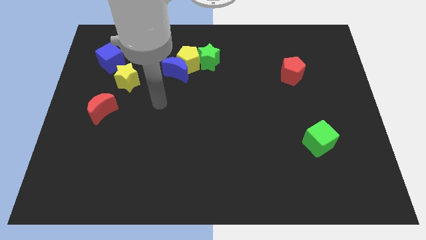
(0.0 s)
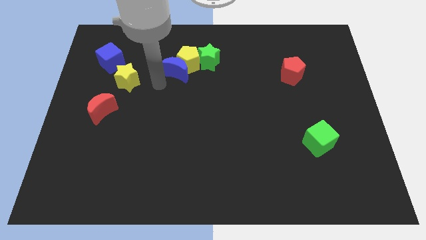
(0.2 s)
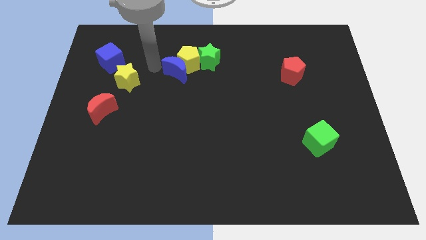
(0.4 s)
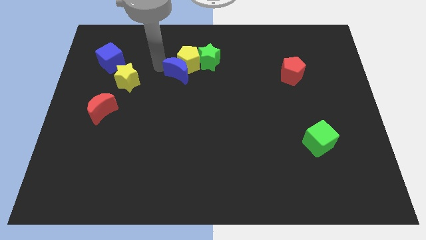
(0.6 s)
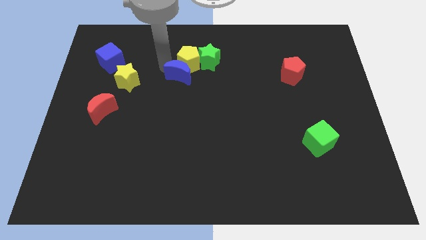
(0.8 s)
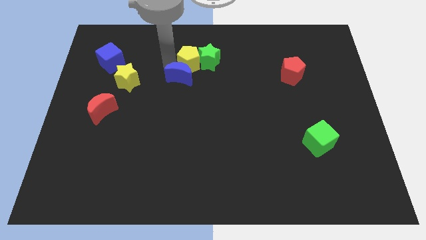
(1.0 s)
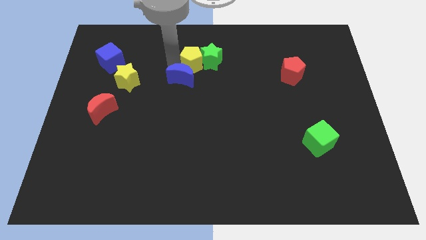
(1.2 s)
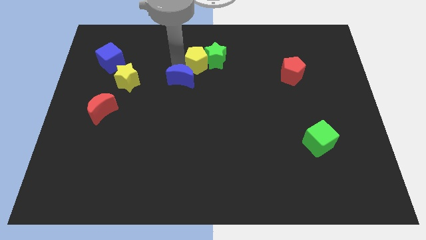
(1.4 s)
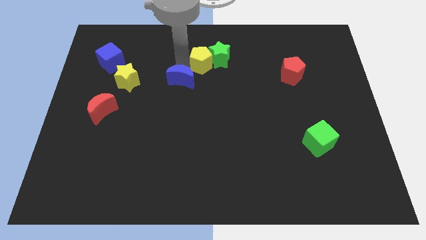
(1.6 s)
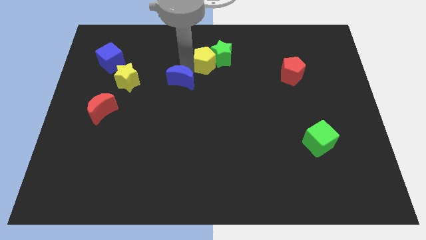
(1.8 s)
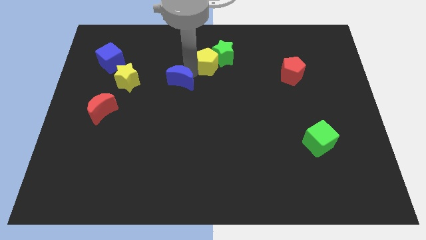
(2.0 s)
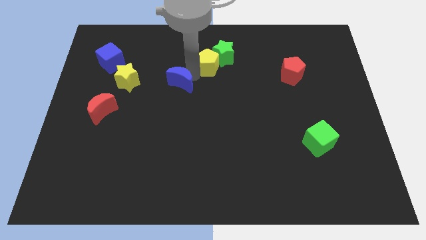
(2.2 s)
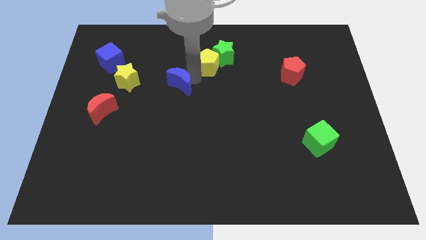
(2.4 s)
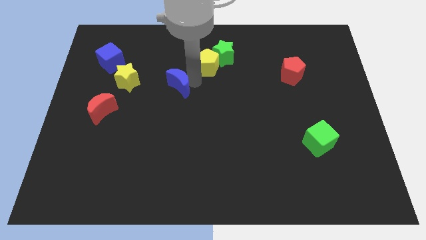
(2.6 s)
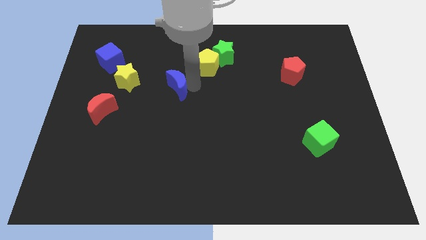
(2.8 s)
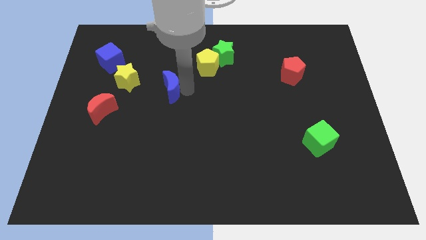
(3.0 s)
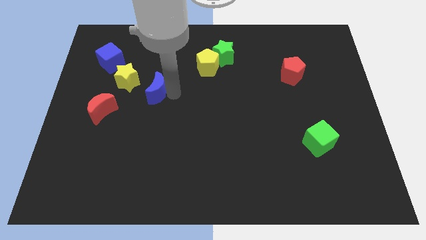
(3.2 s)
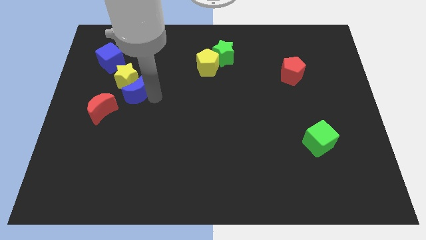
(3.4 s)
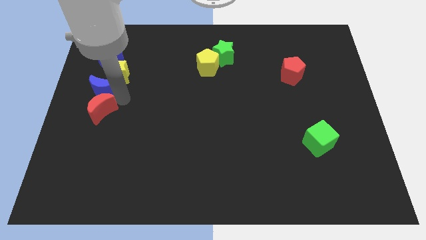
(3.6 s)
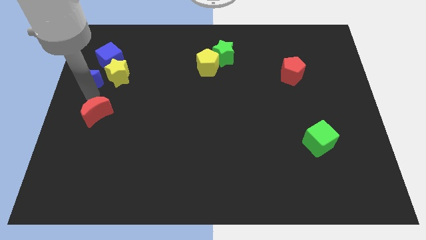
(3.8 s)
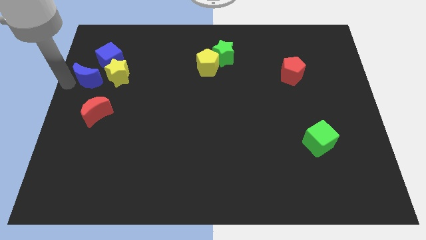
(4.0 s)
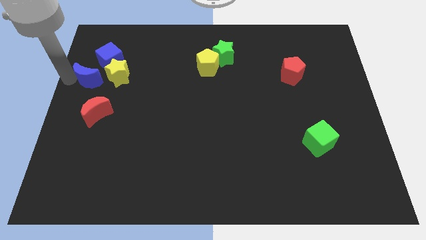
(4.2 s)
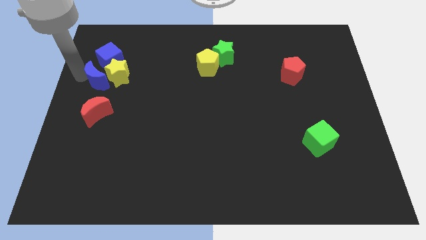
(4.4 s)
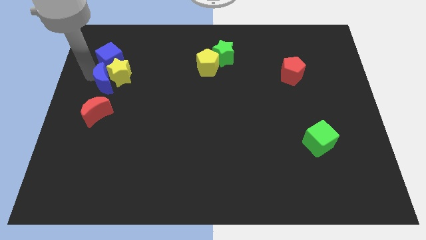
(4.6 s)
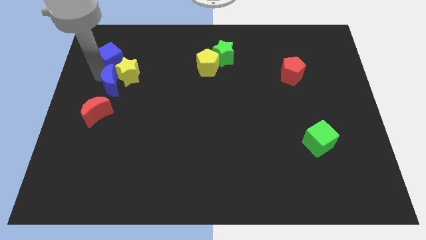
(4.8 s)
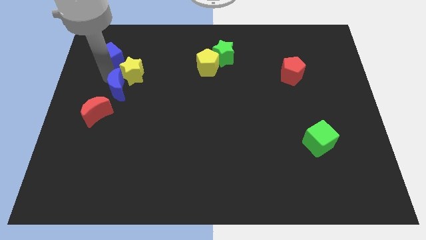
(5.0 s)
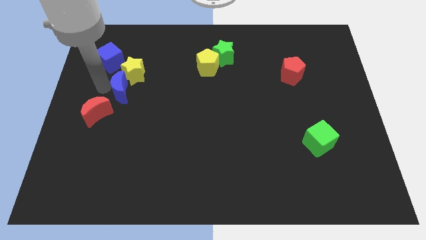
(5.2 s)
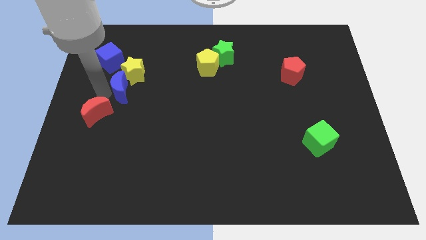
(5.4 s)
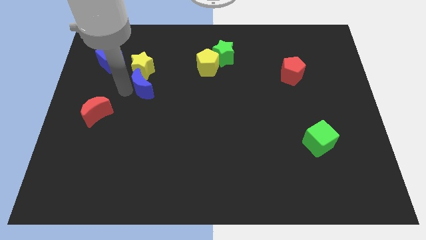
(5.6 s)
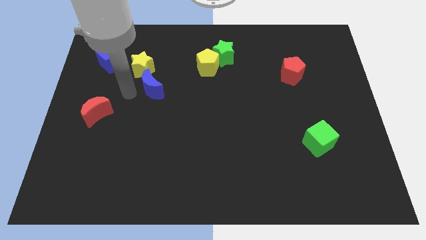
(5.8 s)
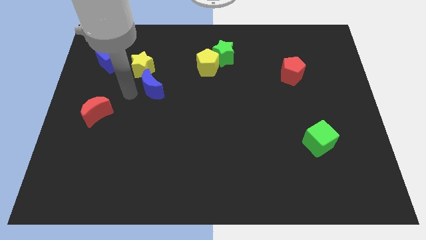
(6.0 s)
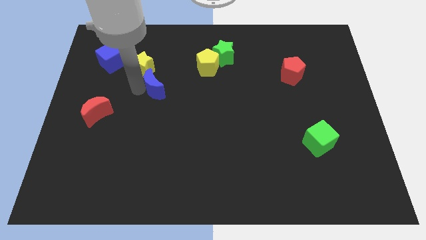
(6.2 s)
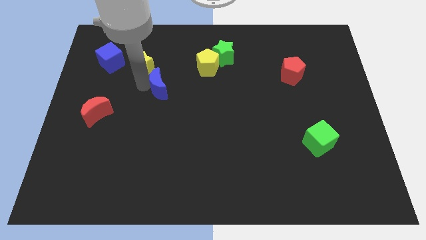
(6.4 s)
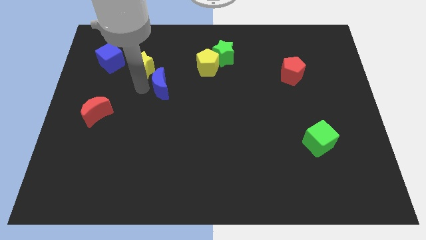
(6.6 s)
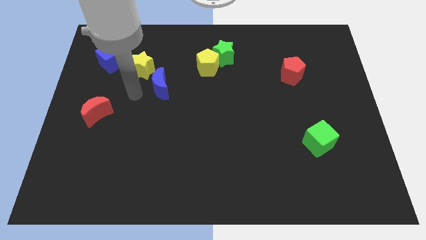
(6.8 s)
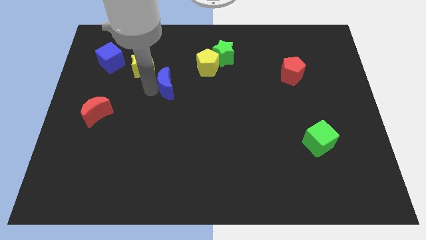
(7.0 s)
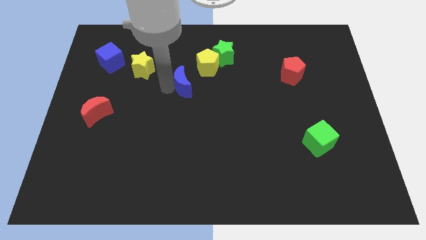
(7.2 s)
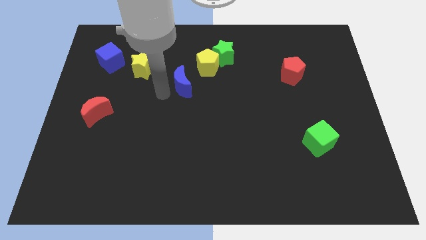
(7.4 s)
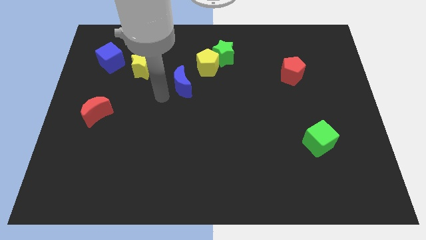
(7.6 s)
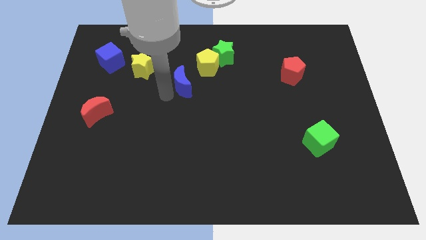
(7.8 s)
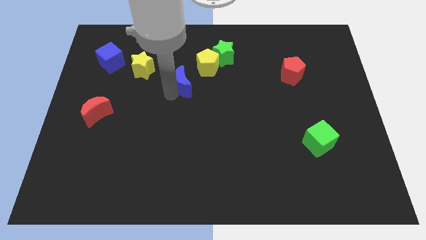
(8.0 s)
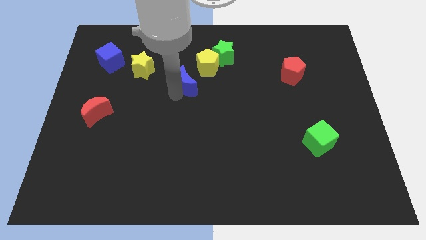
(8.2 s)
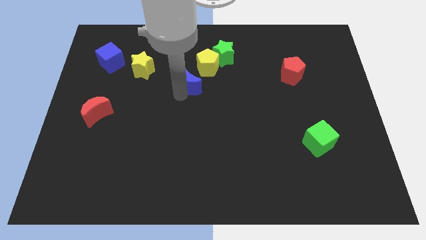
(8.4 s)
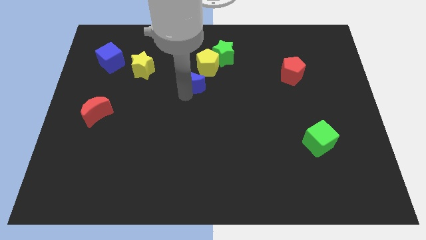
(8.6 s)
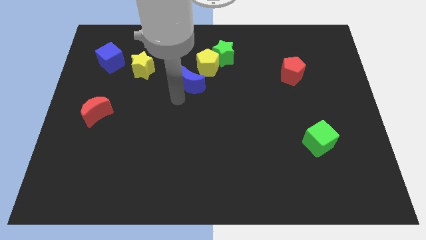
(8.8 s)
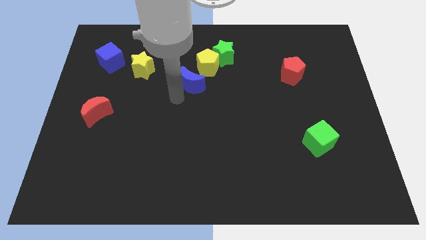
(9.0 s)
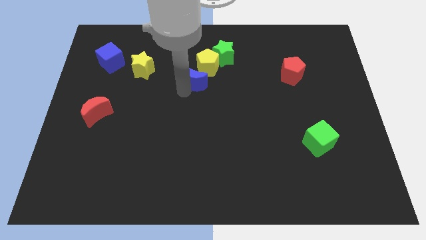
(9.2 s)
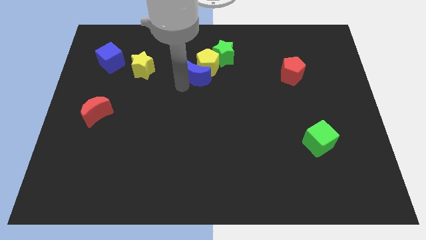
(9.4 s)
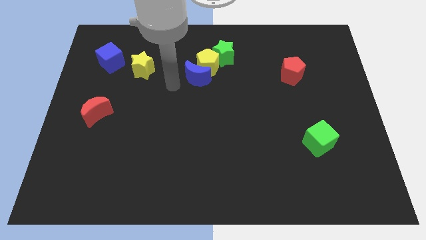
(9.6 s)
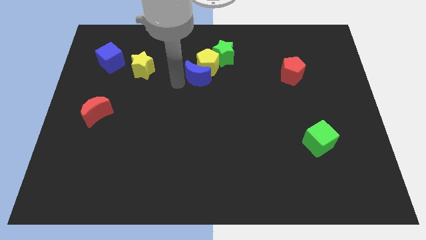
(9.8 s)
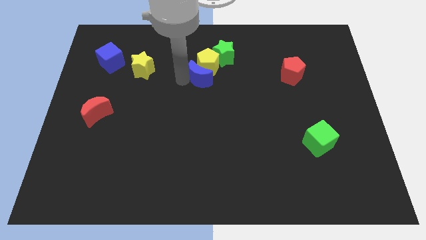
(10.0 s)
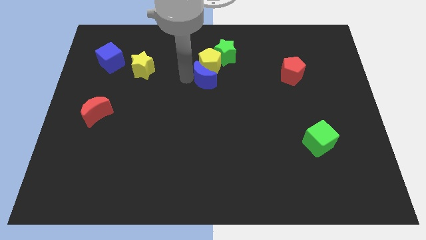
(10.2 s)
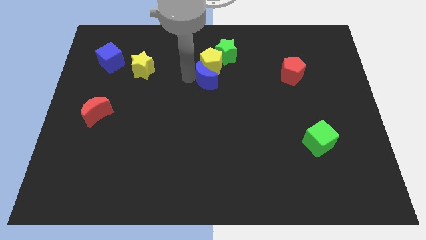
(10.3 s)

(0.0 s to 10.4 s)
slightly move the blue moon right

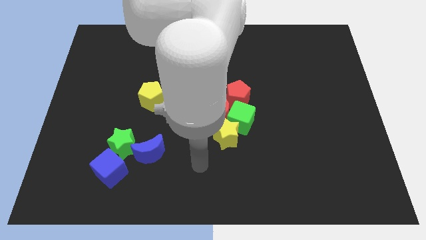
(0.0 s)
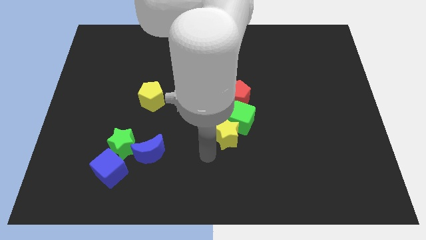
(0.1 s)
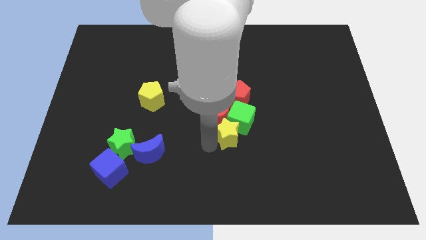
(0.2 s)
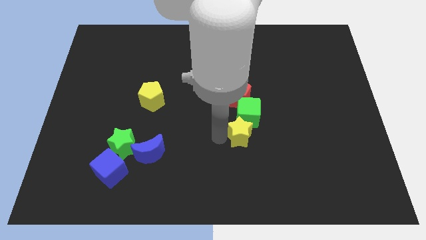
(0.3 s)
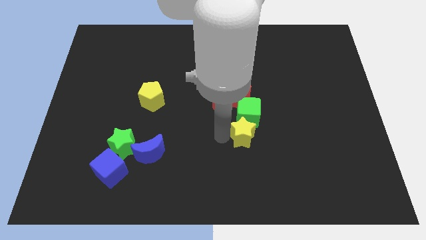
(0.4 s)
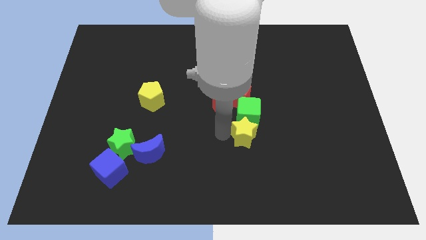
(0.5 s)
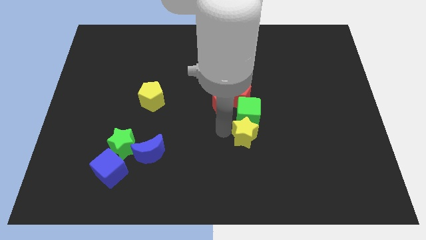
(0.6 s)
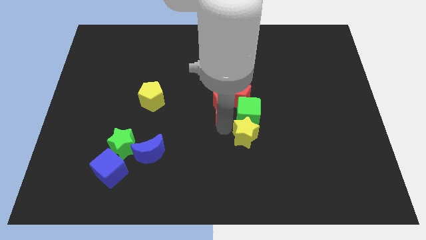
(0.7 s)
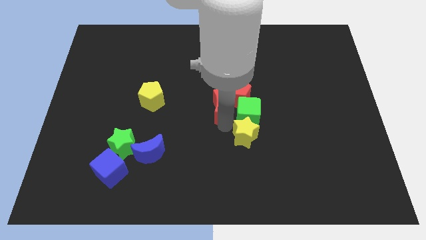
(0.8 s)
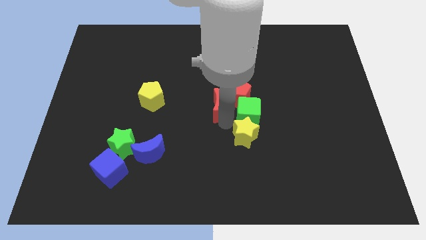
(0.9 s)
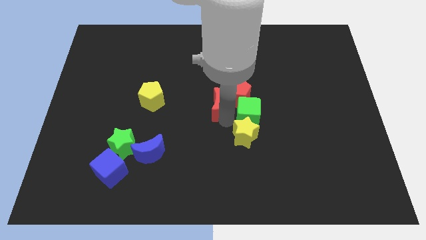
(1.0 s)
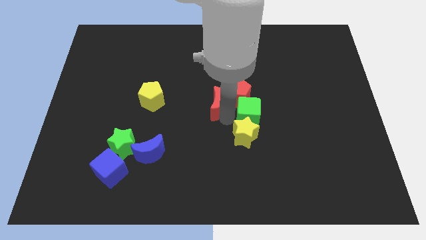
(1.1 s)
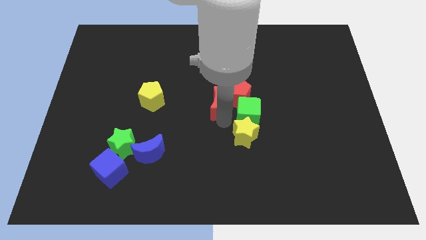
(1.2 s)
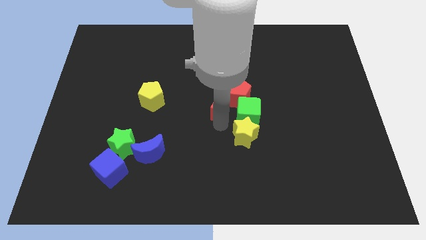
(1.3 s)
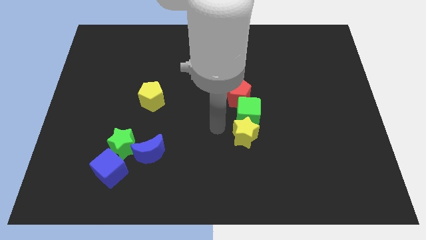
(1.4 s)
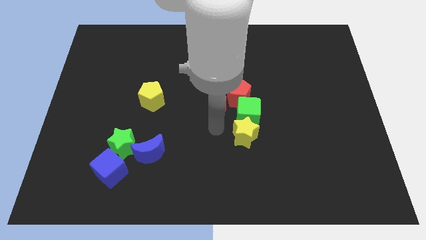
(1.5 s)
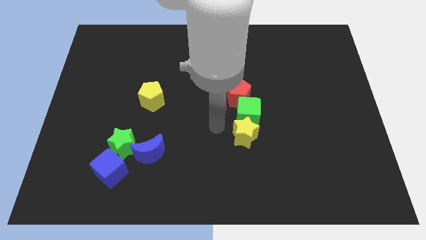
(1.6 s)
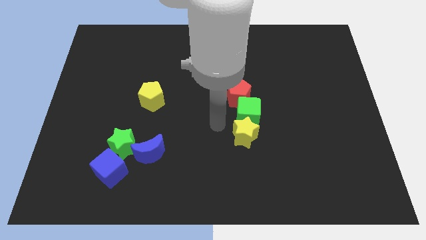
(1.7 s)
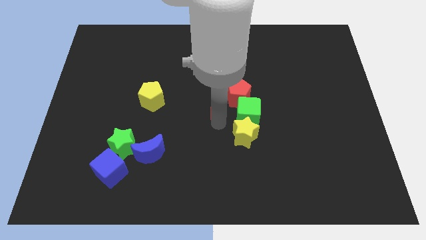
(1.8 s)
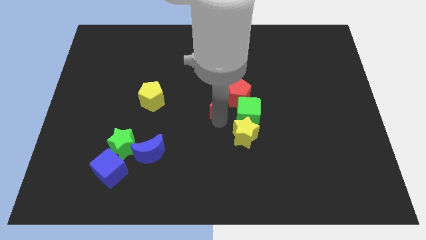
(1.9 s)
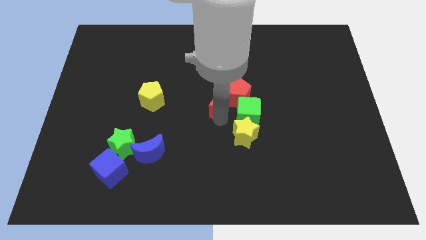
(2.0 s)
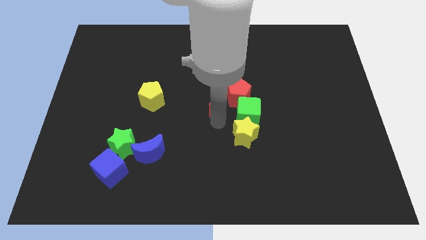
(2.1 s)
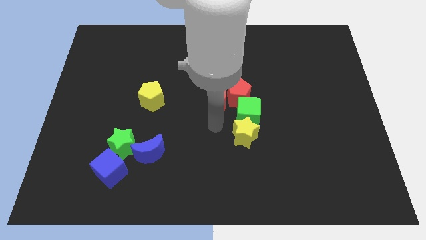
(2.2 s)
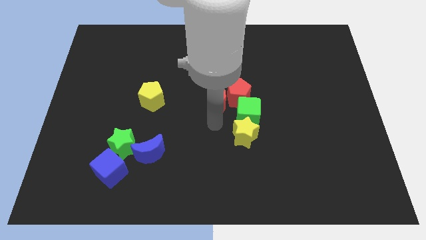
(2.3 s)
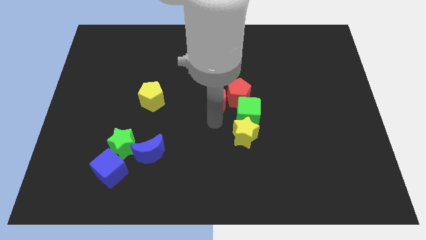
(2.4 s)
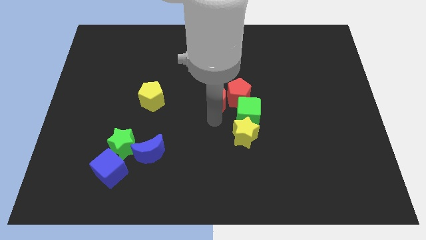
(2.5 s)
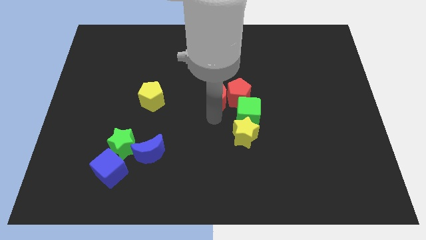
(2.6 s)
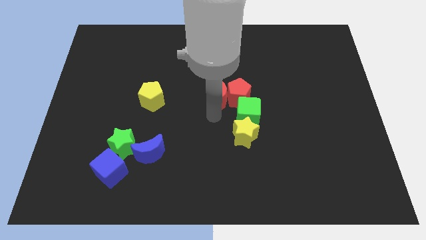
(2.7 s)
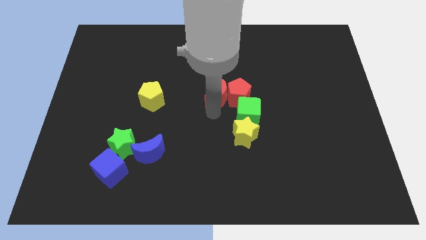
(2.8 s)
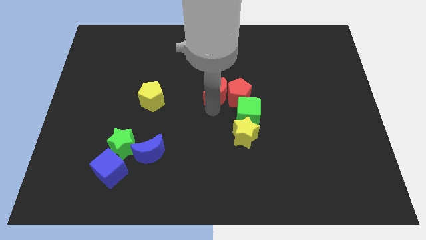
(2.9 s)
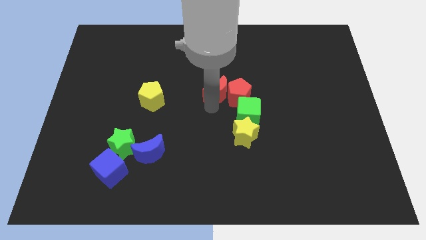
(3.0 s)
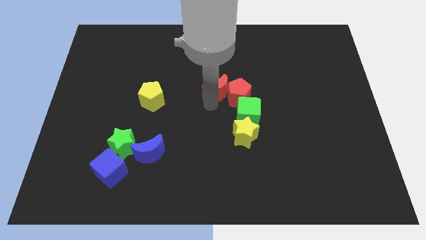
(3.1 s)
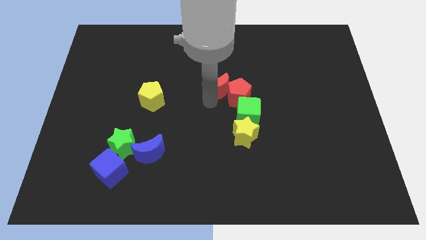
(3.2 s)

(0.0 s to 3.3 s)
move the red moon a little bit up
